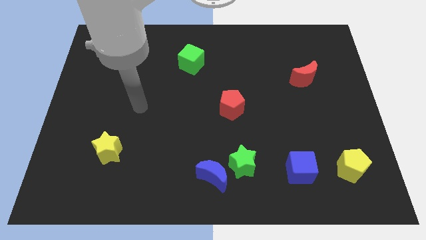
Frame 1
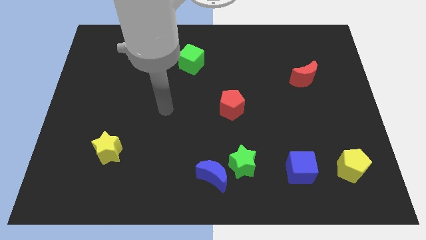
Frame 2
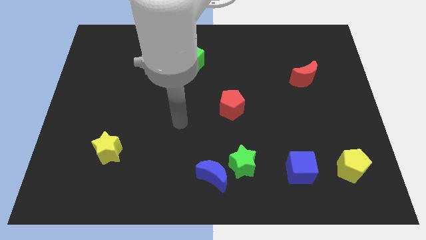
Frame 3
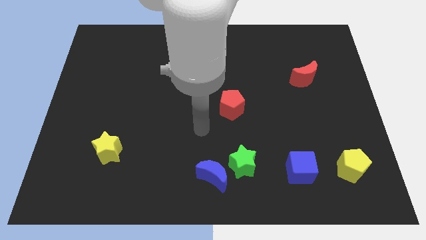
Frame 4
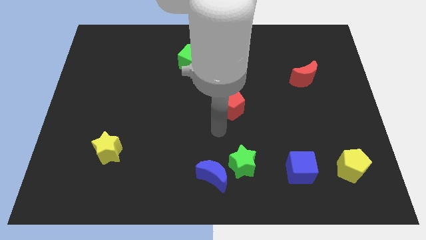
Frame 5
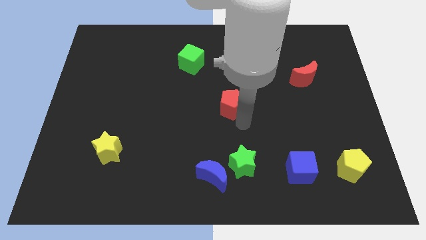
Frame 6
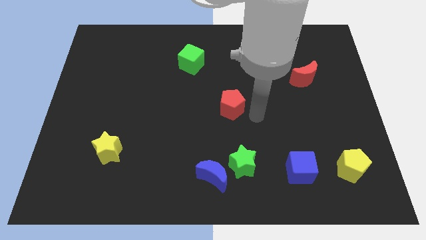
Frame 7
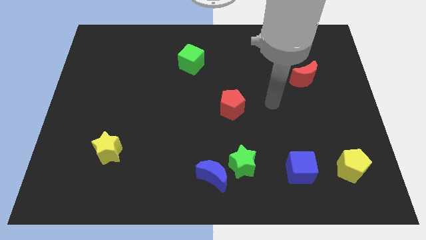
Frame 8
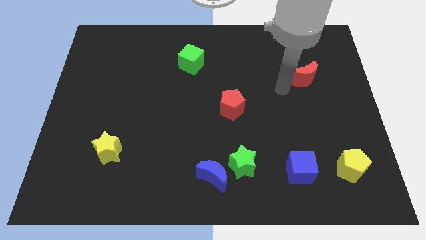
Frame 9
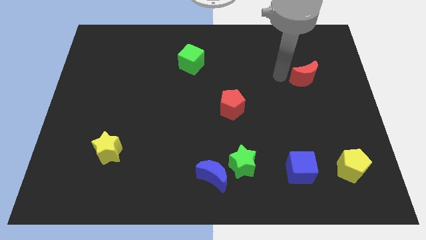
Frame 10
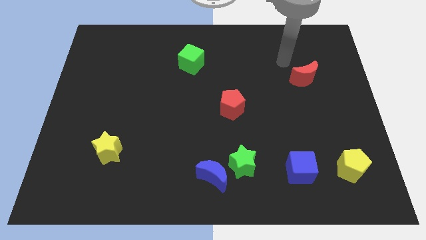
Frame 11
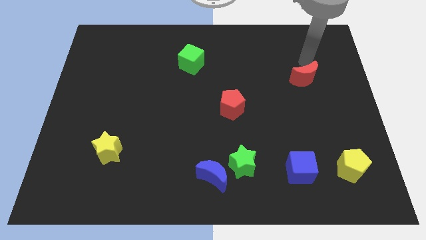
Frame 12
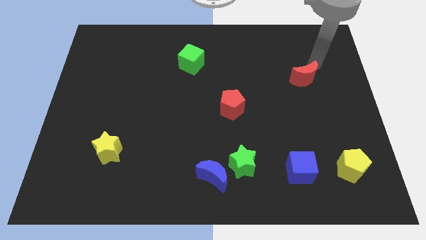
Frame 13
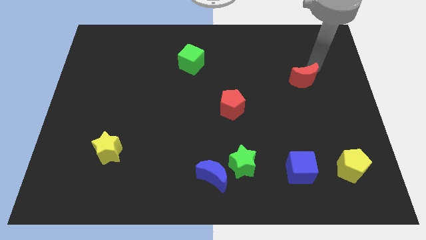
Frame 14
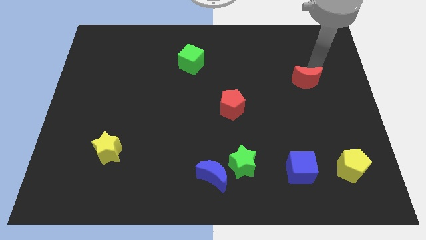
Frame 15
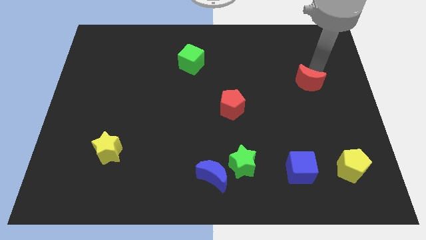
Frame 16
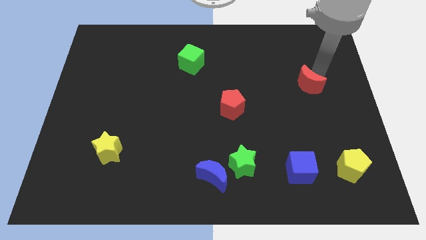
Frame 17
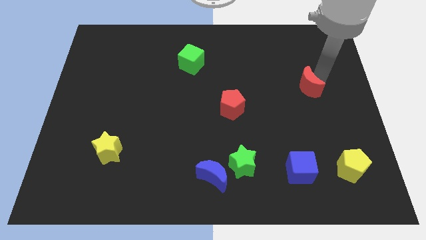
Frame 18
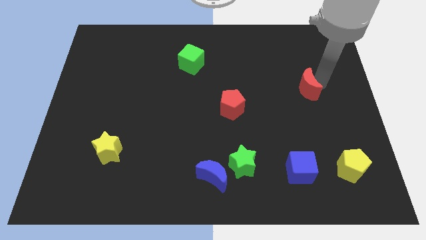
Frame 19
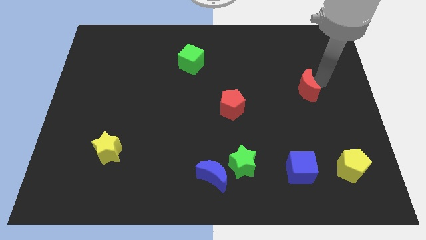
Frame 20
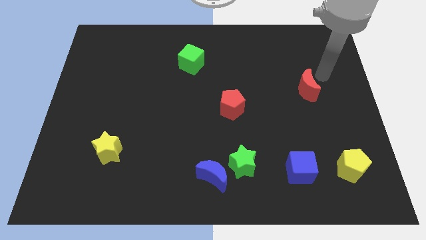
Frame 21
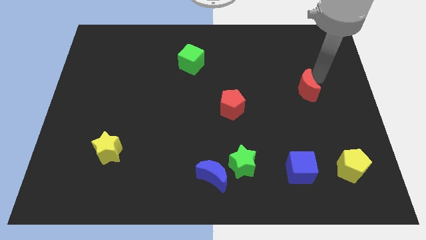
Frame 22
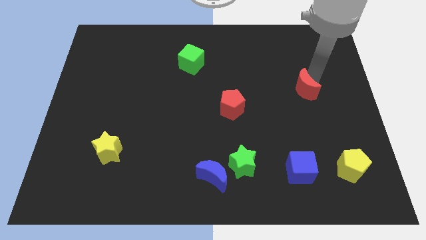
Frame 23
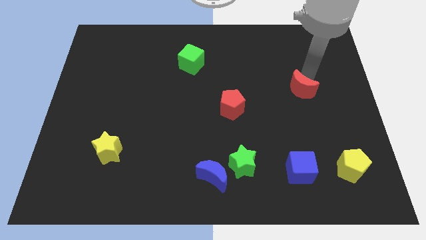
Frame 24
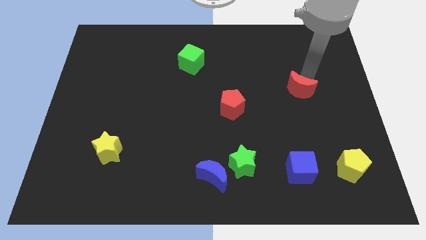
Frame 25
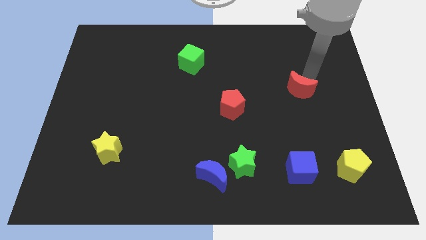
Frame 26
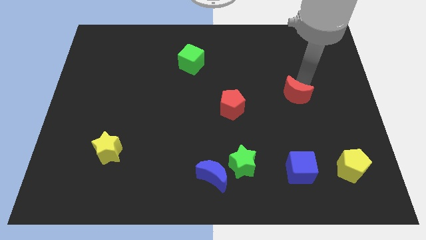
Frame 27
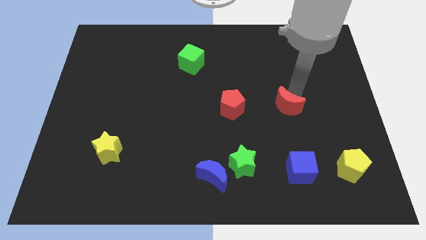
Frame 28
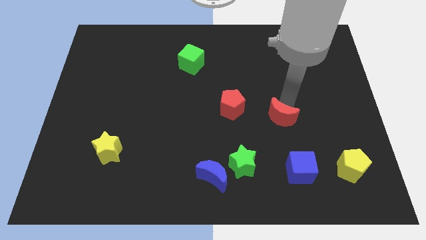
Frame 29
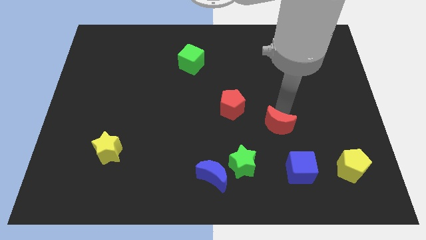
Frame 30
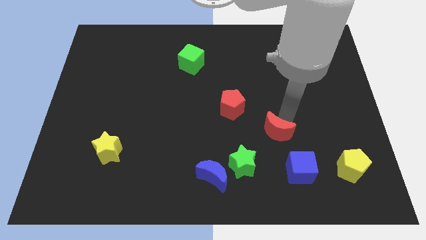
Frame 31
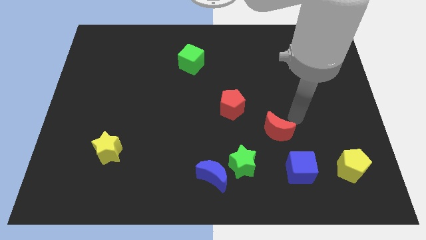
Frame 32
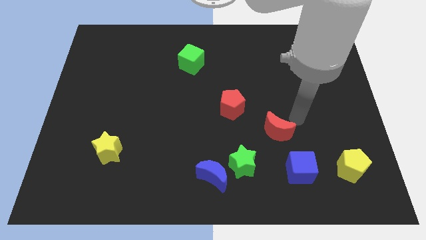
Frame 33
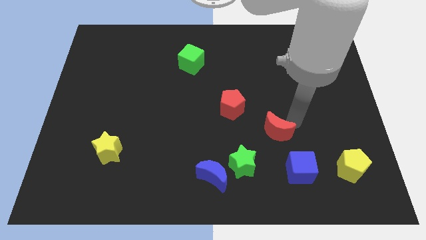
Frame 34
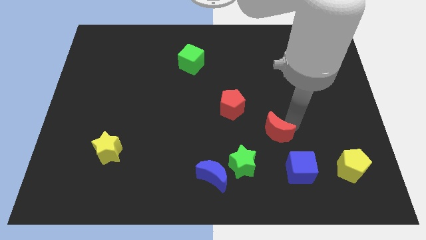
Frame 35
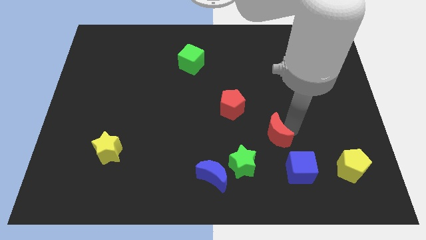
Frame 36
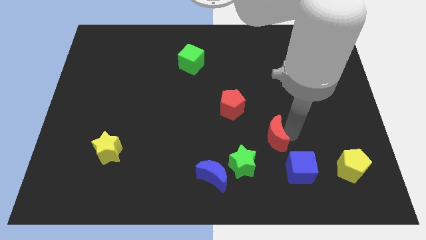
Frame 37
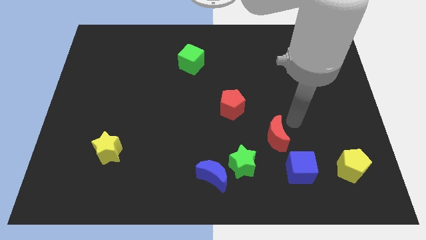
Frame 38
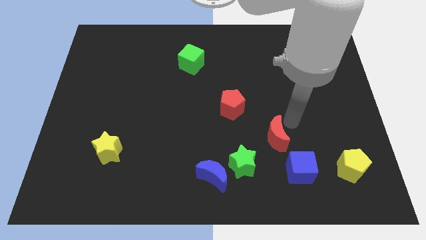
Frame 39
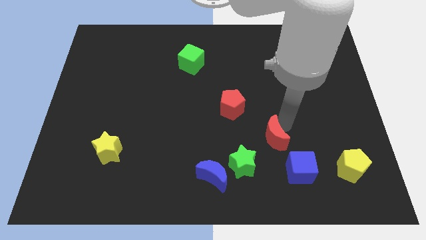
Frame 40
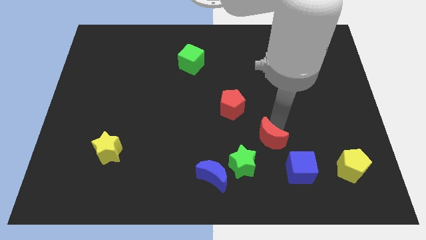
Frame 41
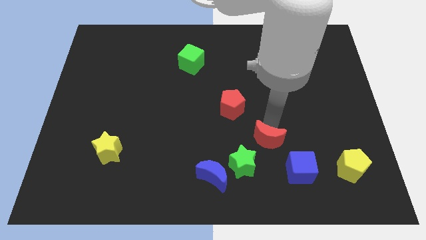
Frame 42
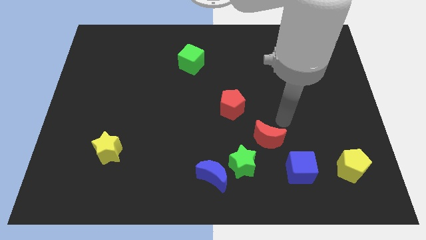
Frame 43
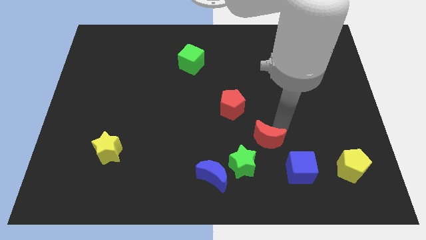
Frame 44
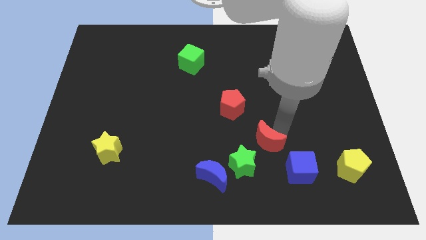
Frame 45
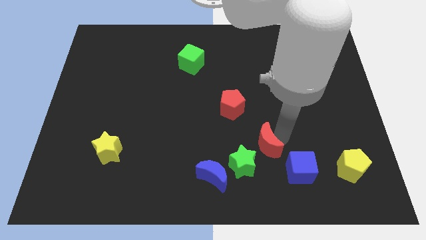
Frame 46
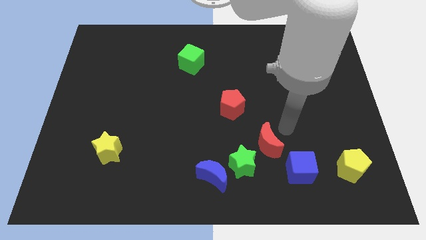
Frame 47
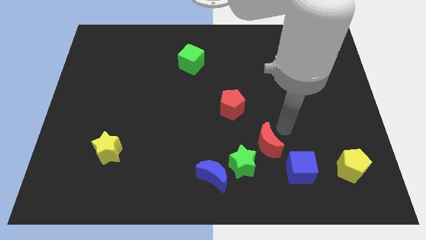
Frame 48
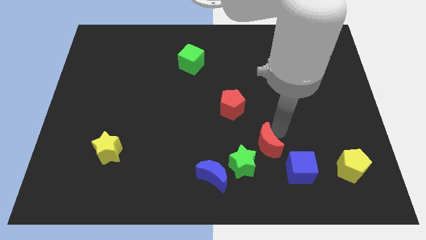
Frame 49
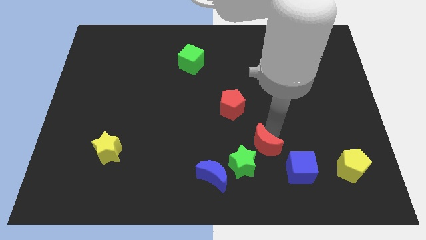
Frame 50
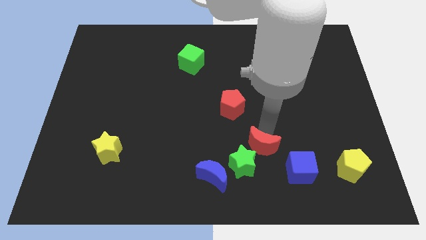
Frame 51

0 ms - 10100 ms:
push the red moon to the green star

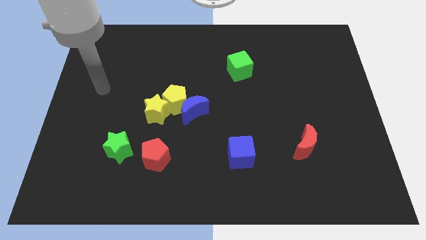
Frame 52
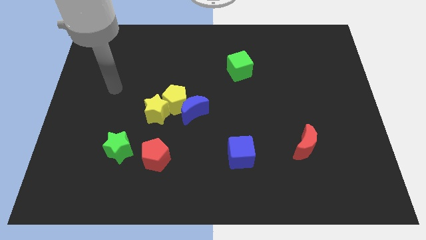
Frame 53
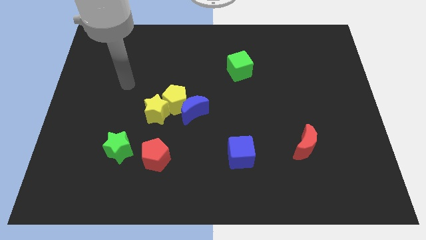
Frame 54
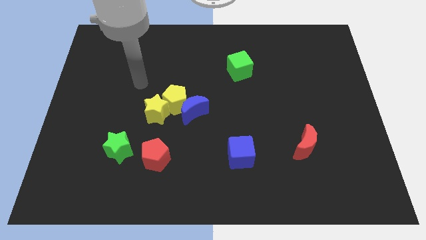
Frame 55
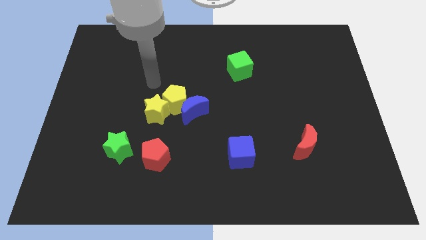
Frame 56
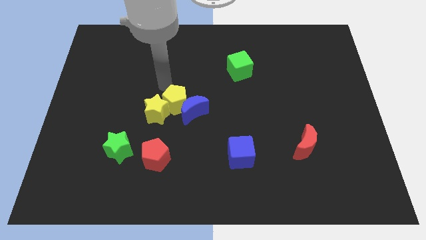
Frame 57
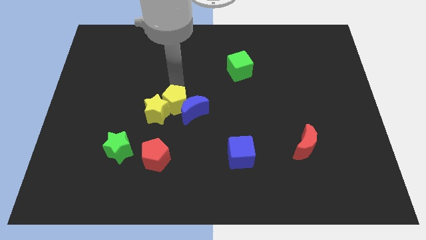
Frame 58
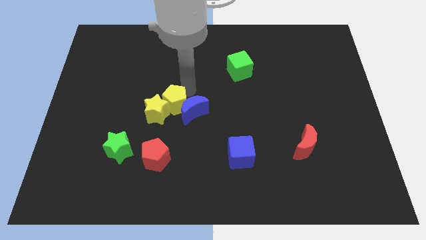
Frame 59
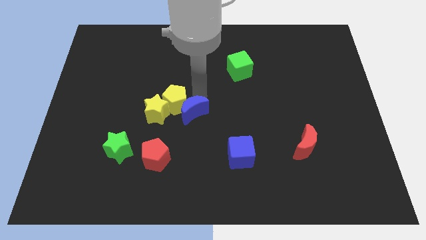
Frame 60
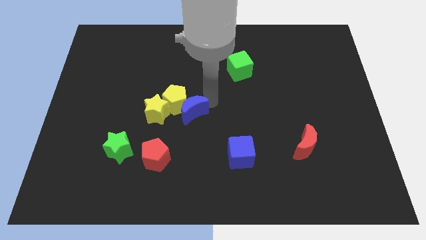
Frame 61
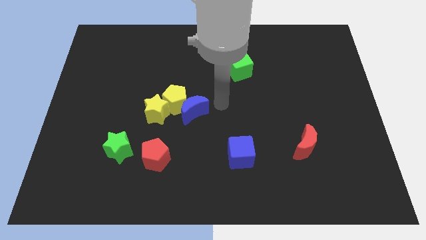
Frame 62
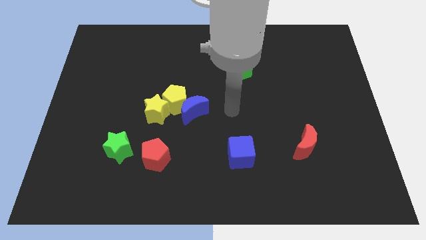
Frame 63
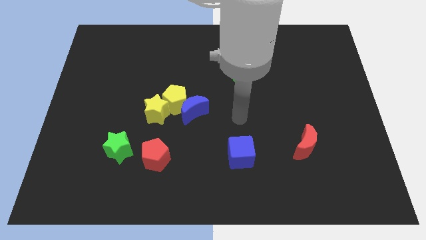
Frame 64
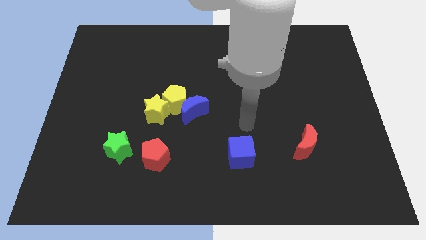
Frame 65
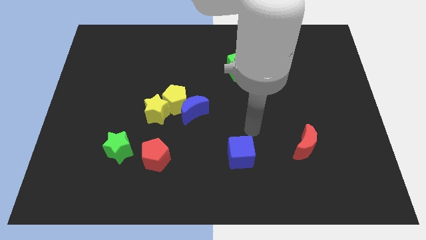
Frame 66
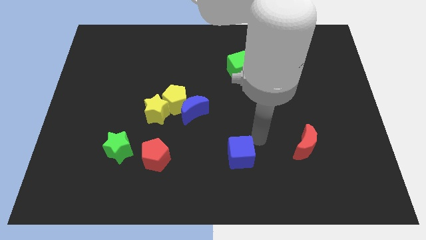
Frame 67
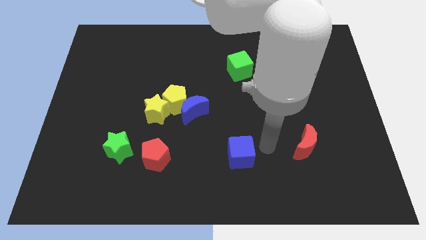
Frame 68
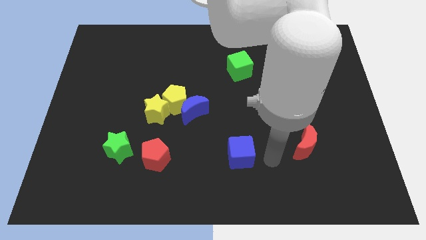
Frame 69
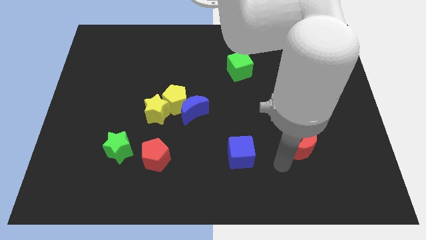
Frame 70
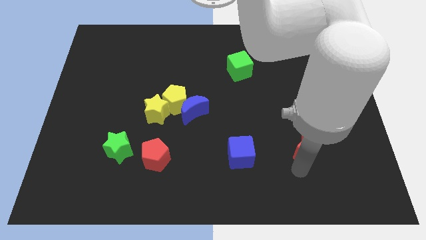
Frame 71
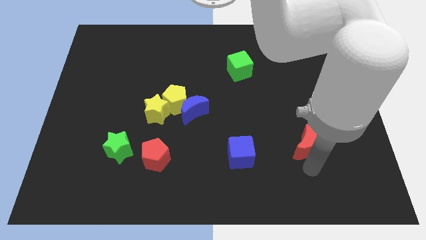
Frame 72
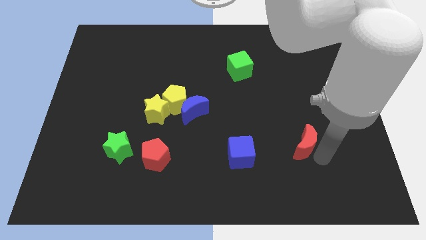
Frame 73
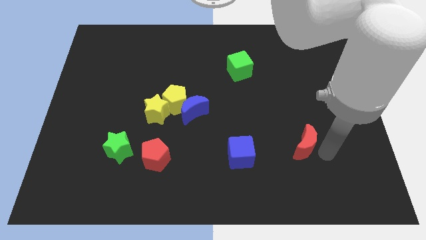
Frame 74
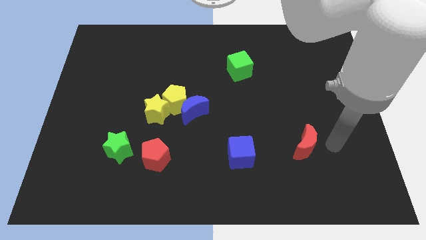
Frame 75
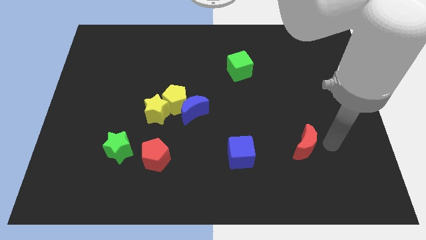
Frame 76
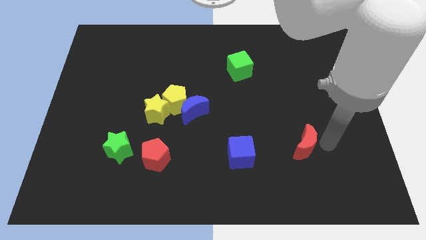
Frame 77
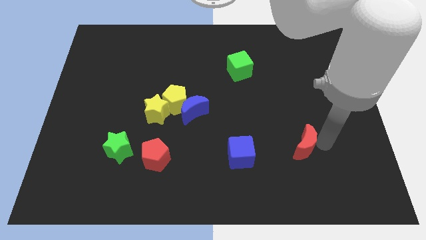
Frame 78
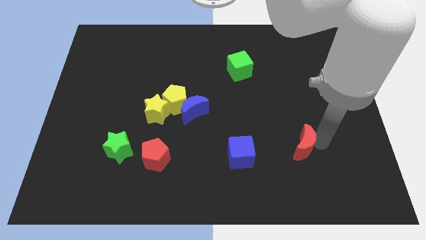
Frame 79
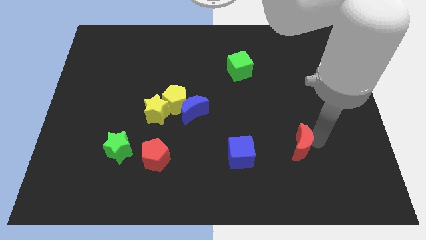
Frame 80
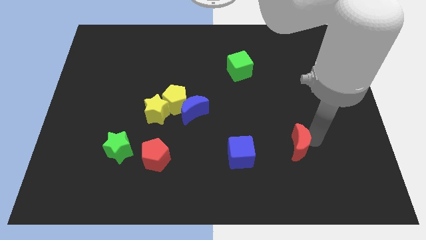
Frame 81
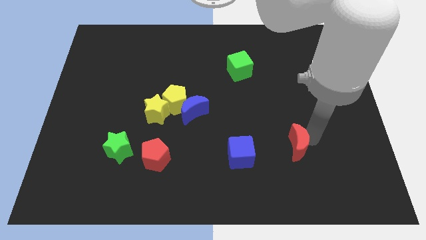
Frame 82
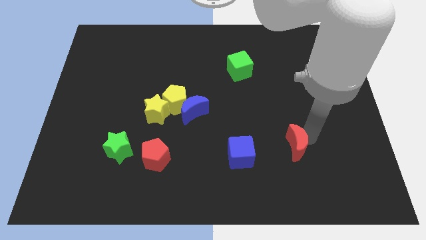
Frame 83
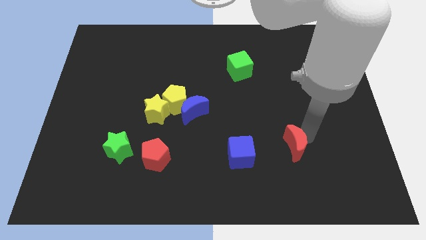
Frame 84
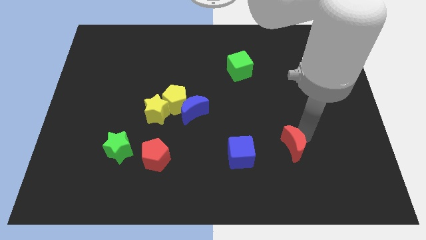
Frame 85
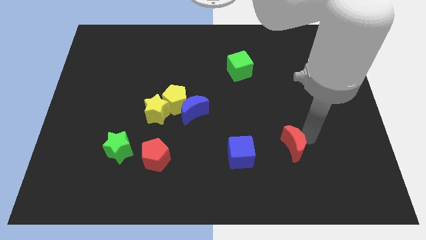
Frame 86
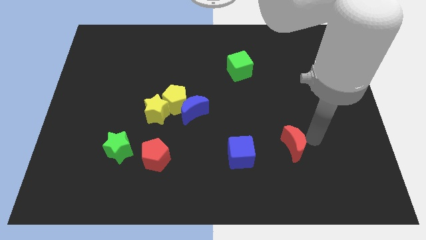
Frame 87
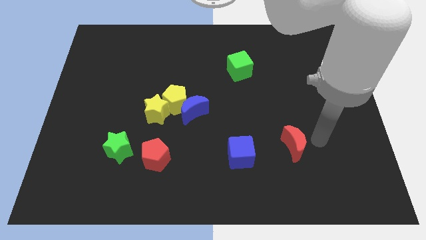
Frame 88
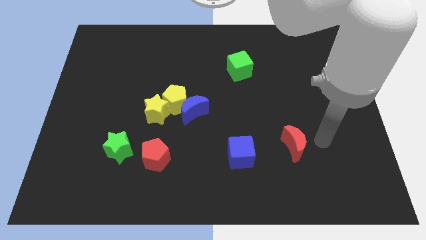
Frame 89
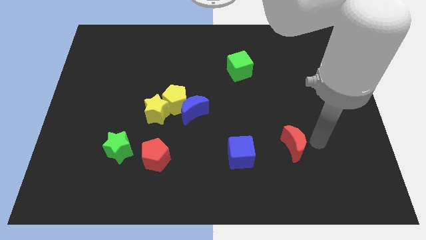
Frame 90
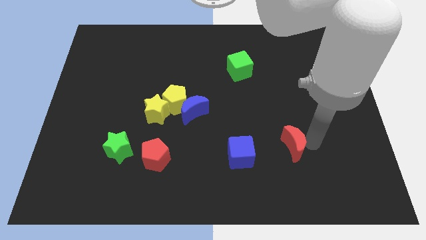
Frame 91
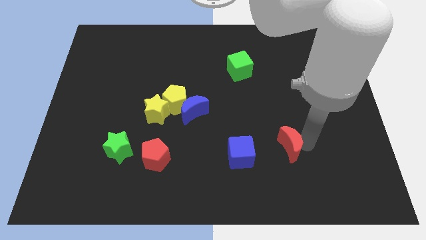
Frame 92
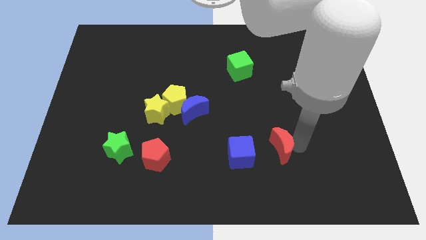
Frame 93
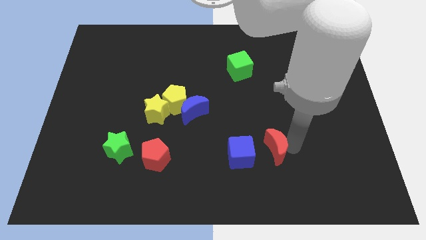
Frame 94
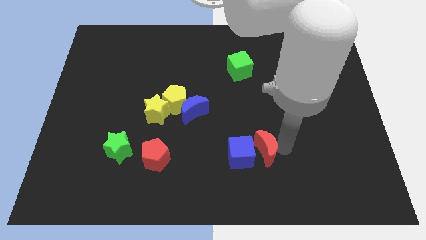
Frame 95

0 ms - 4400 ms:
push the red moon next to the blue cube
